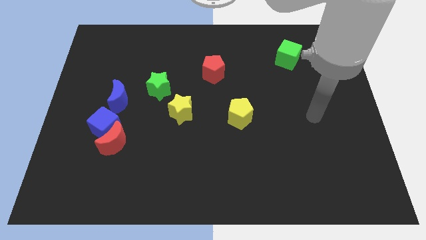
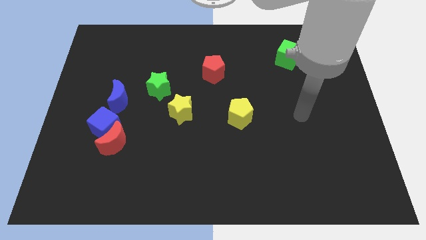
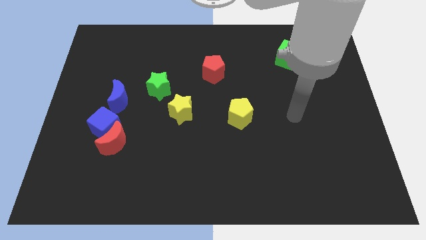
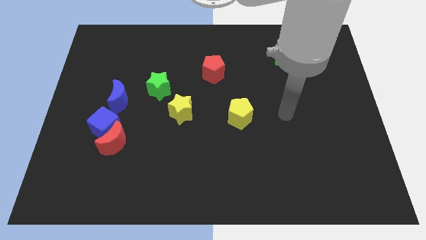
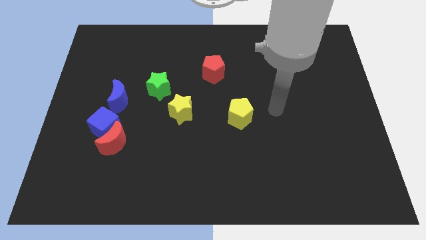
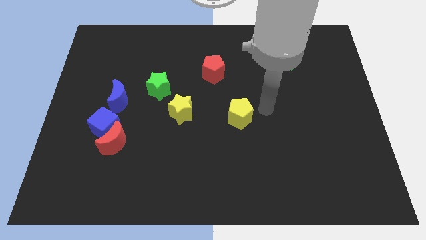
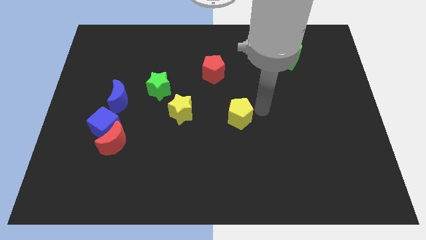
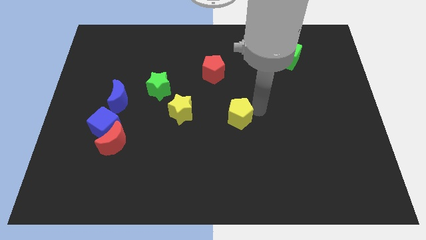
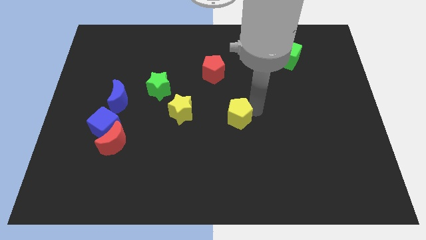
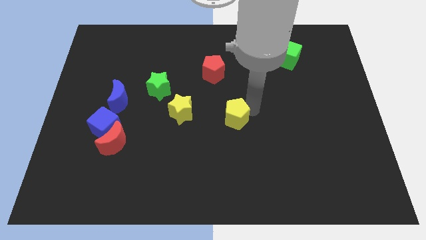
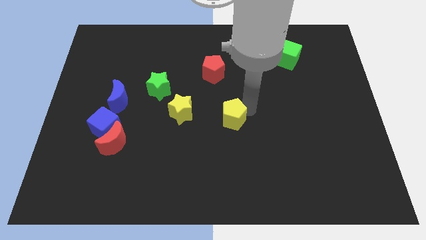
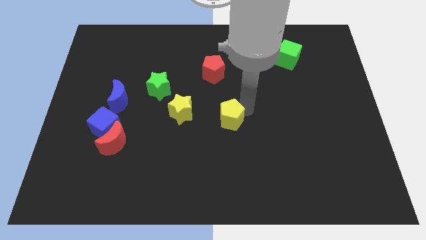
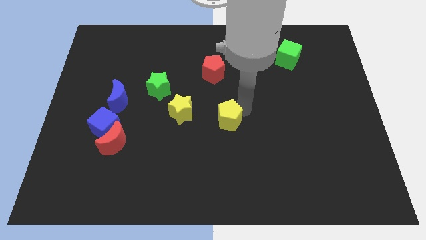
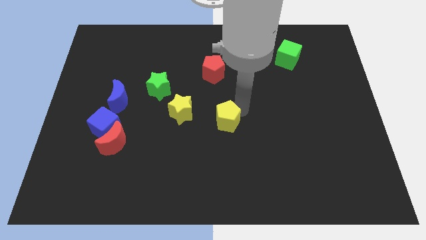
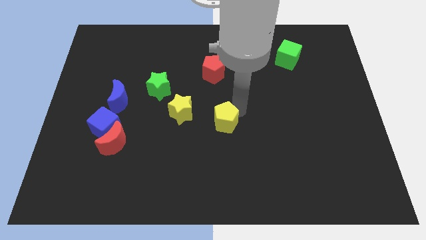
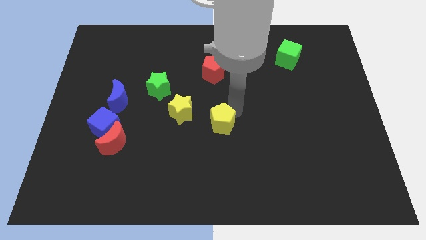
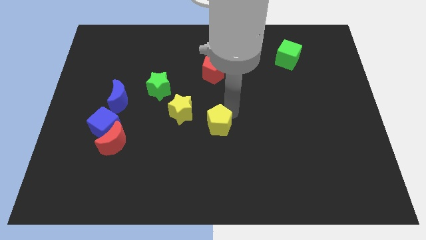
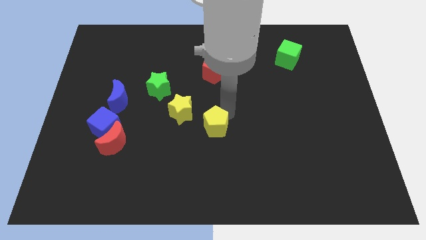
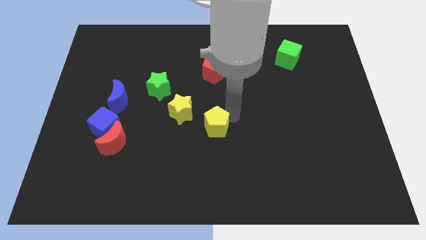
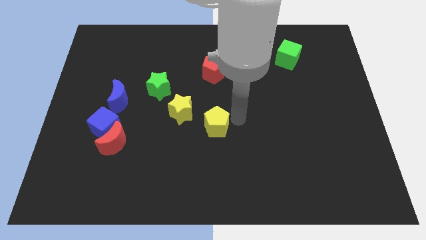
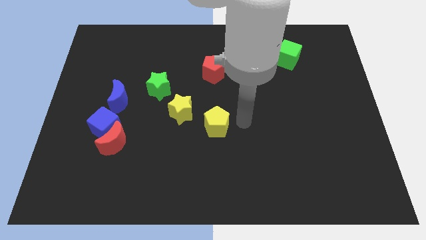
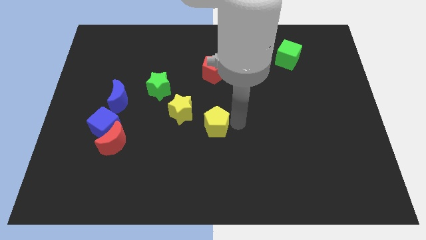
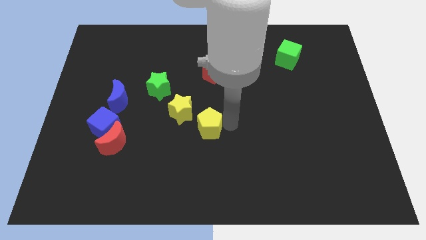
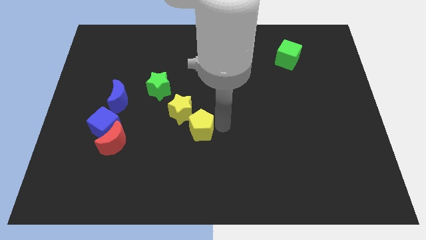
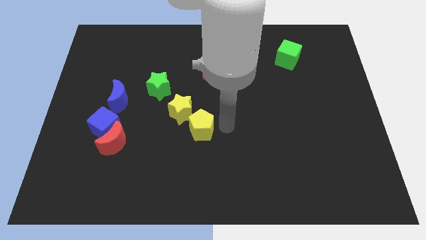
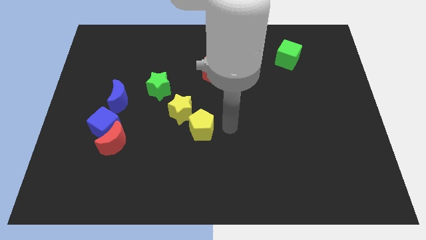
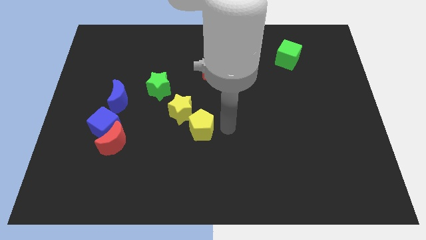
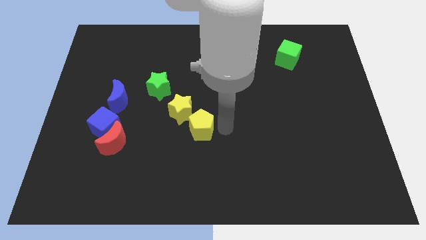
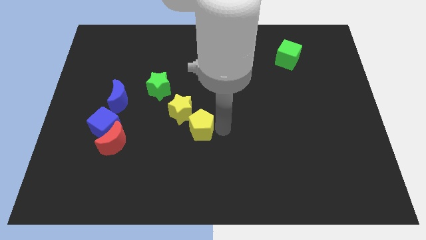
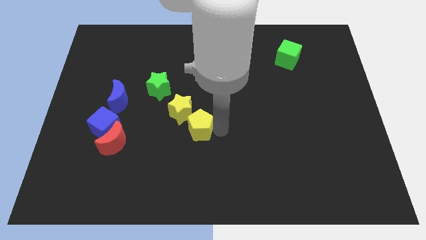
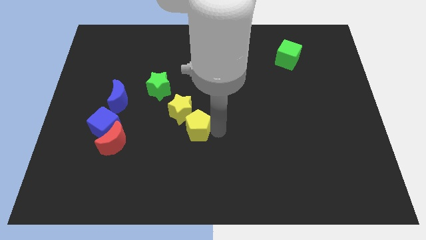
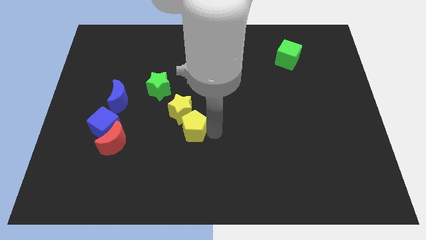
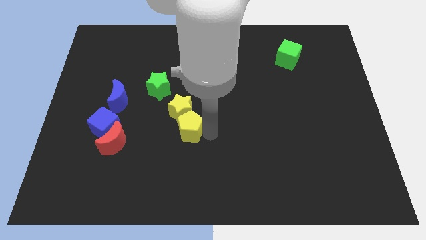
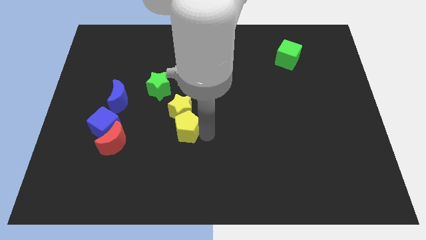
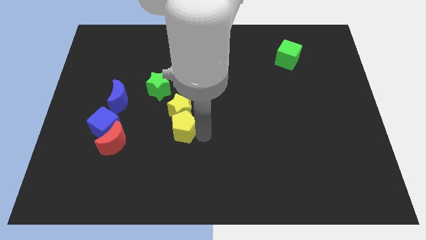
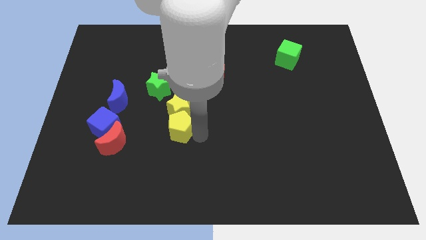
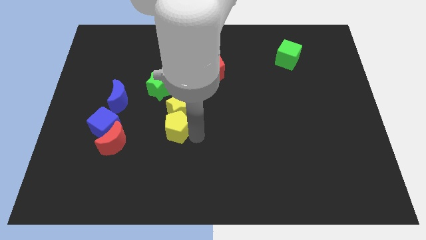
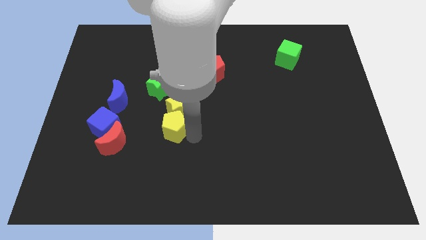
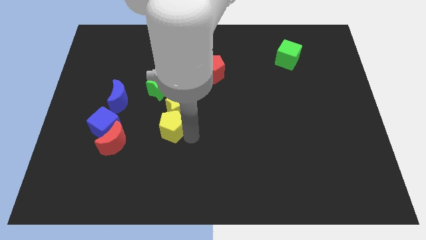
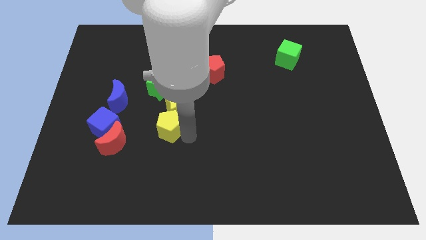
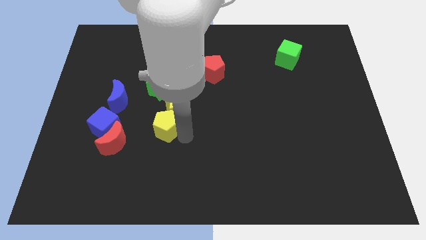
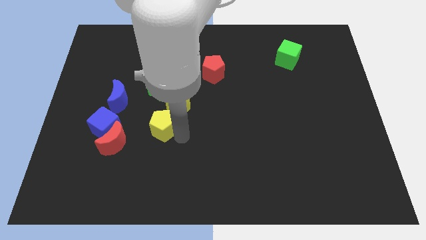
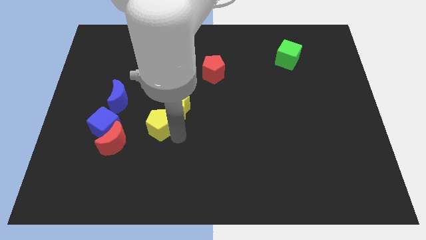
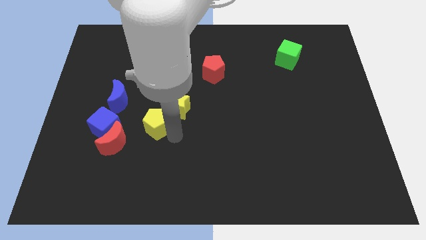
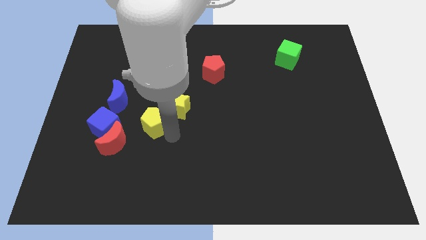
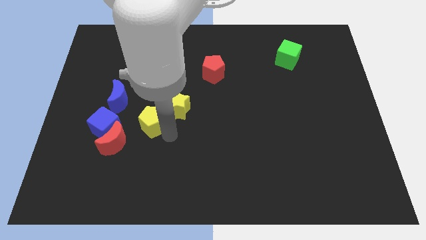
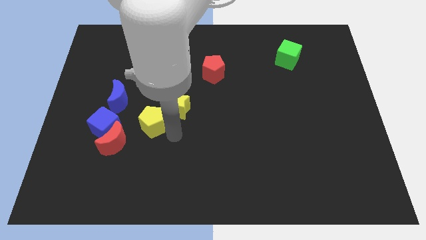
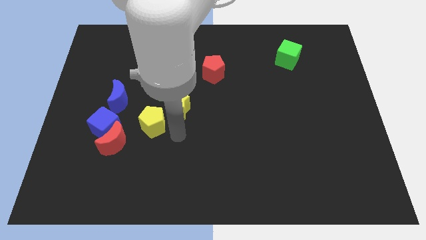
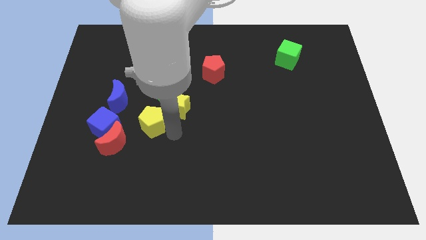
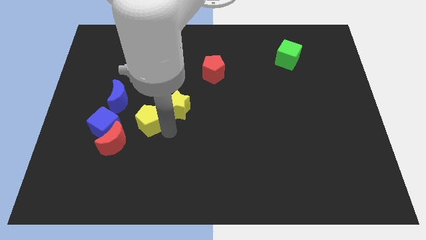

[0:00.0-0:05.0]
slide the yellow pentagon left

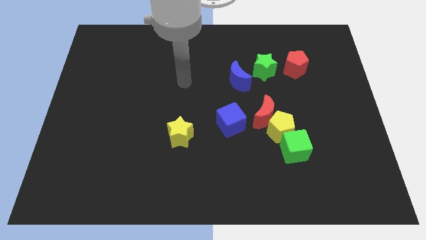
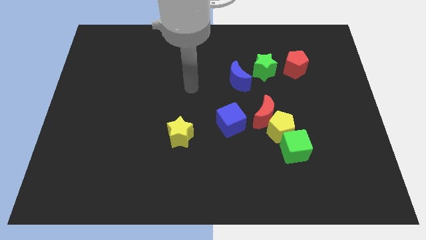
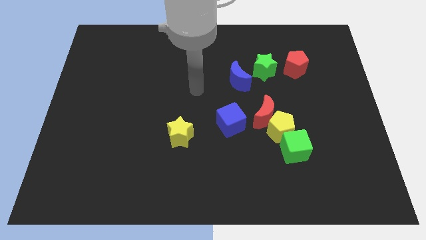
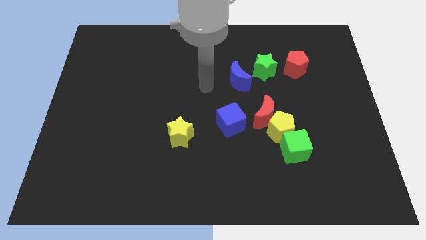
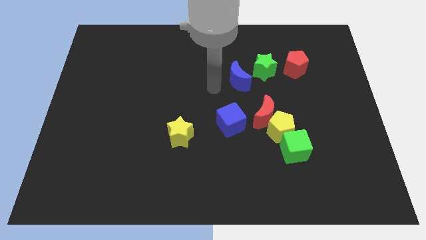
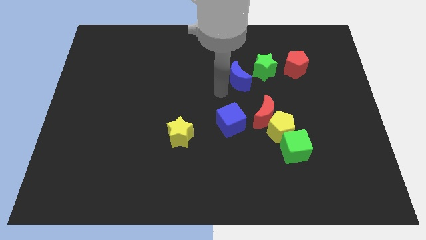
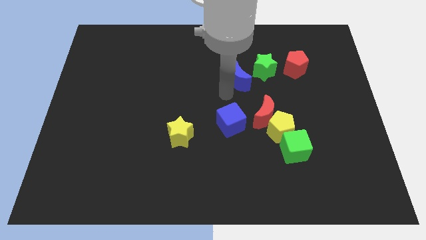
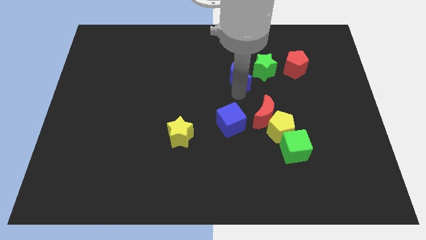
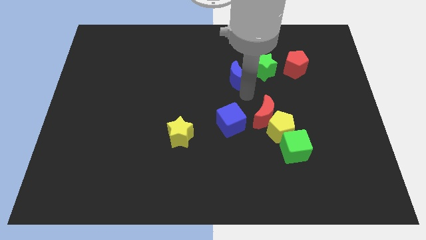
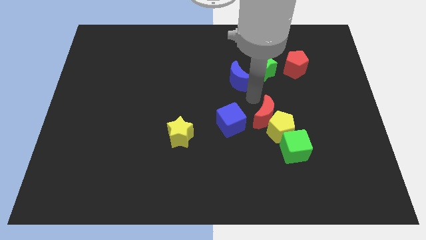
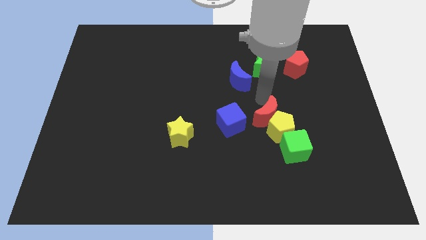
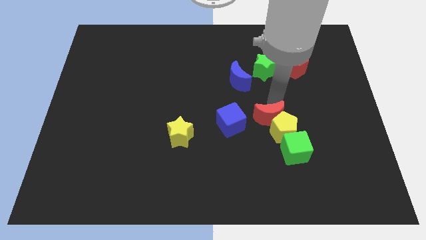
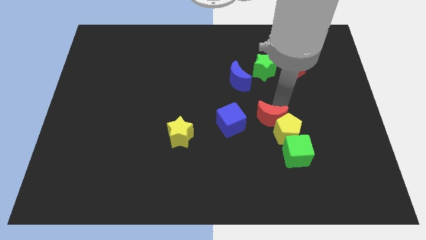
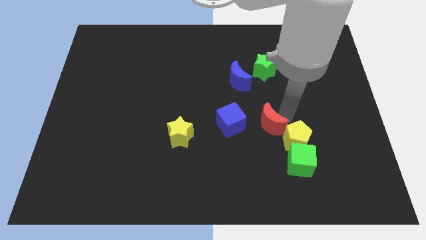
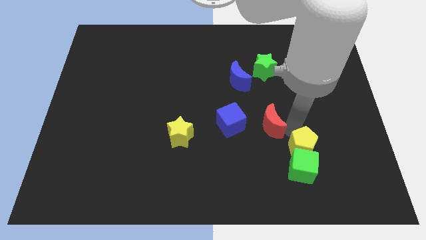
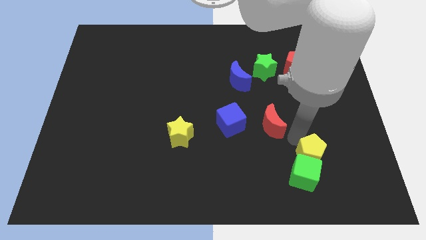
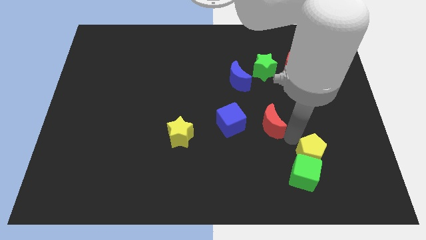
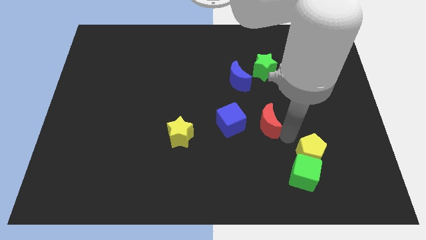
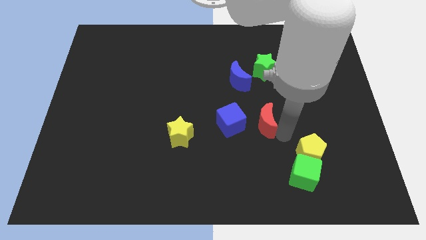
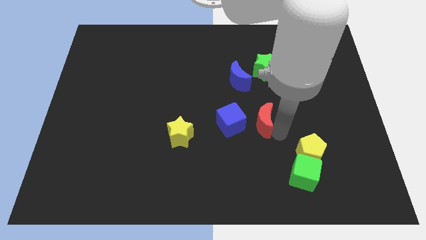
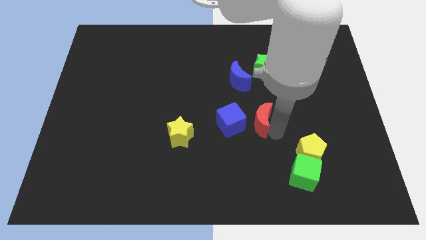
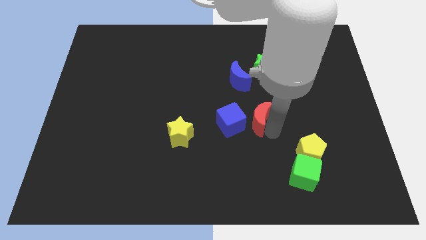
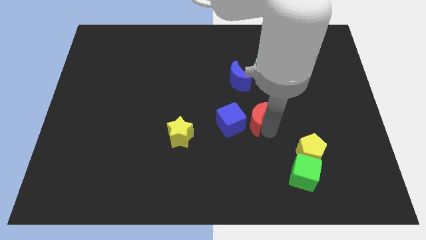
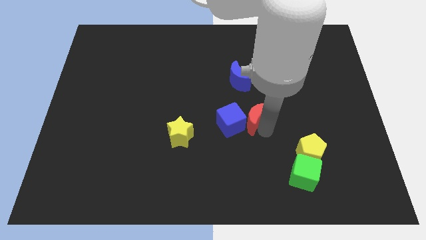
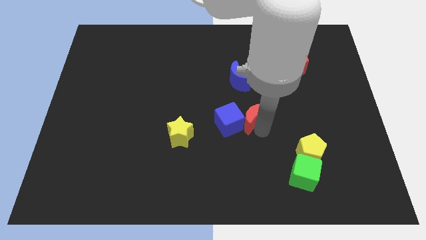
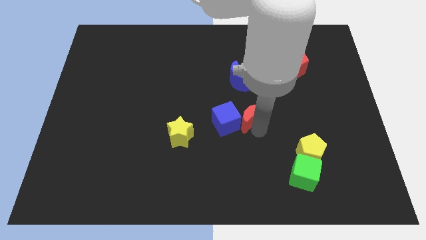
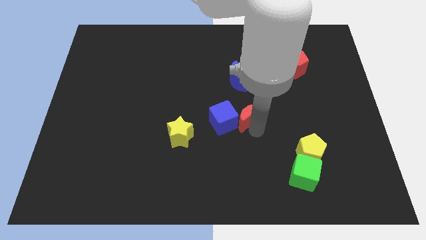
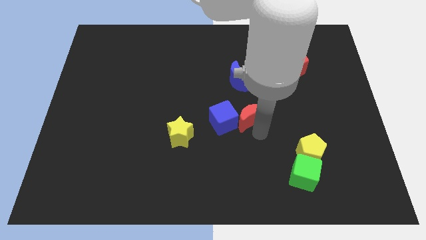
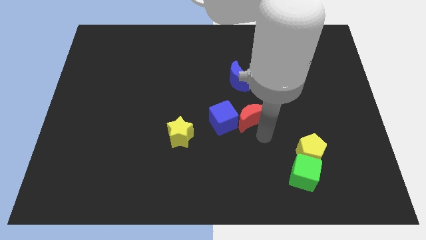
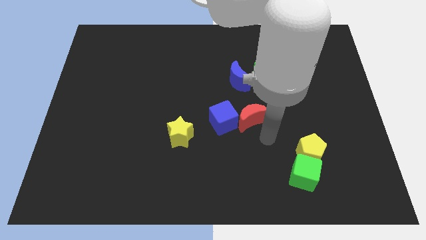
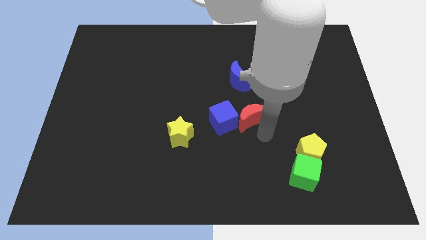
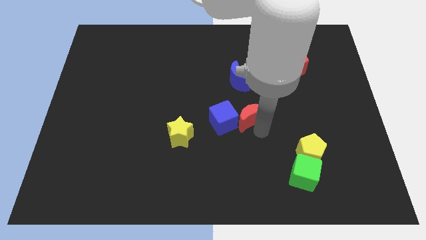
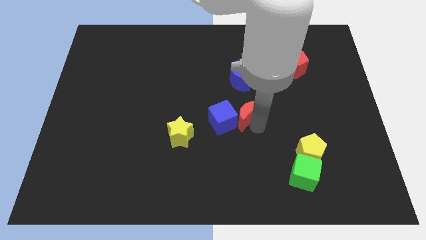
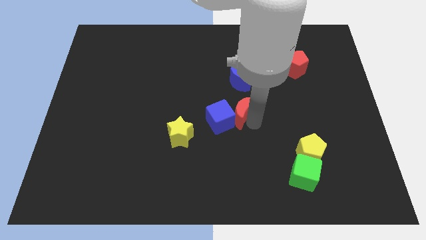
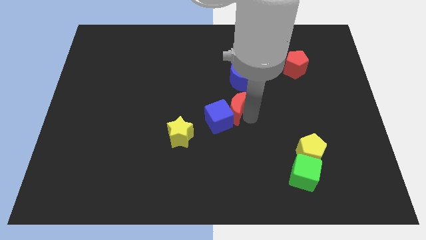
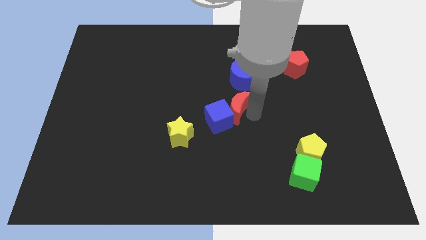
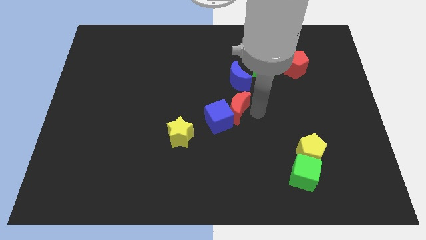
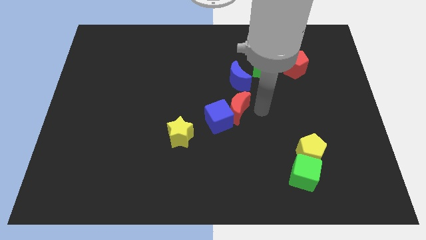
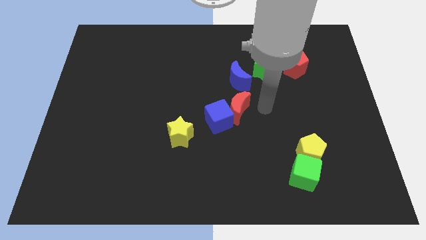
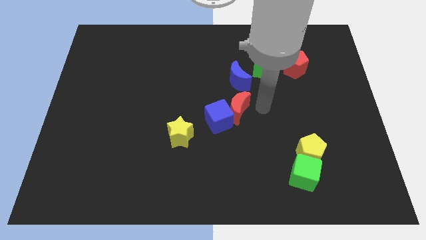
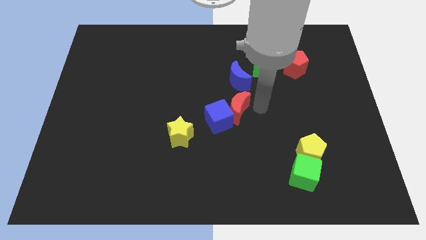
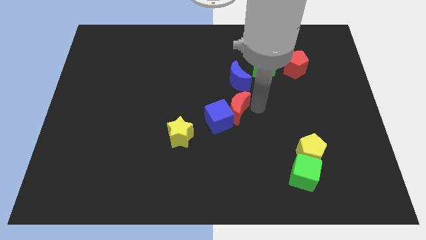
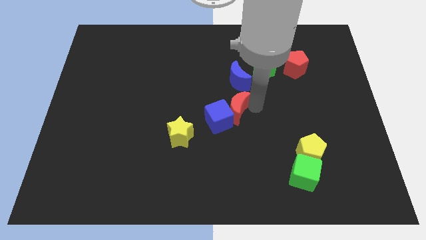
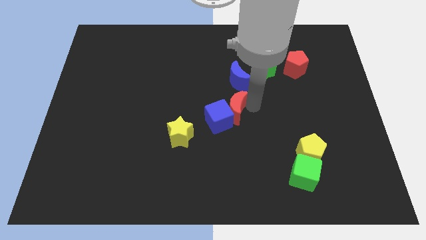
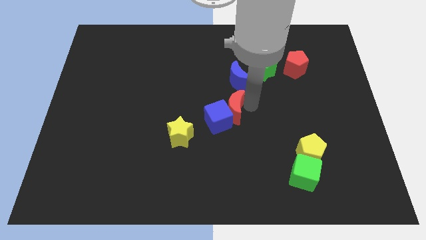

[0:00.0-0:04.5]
slide the red moon to the left a little
